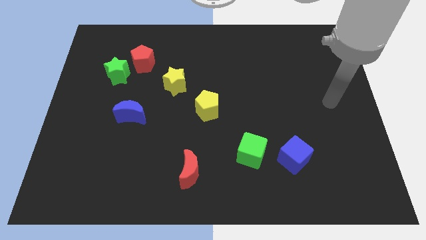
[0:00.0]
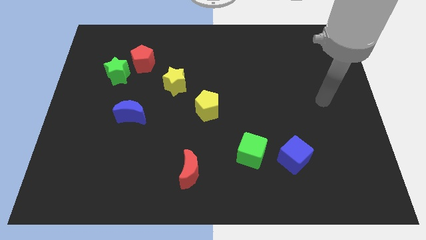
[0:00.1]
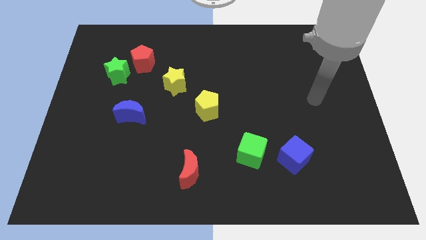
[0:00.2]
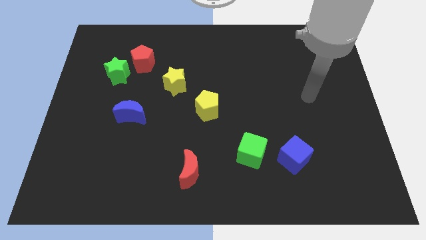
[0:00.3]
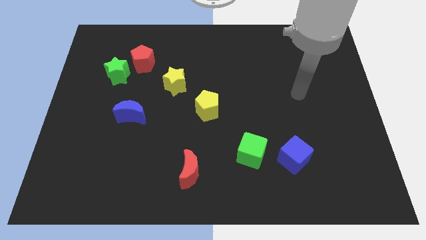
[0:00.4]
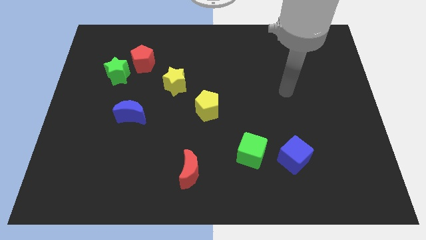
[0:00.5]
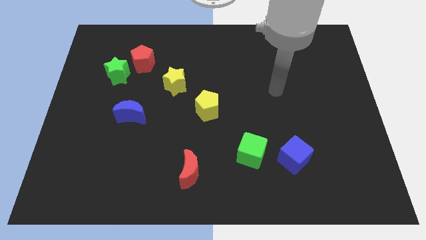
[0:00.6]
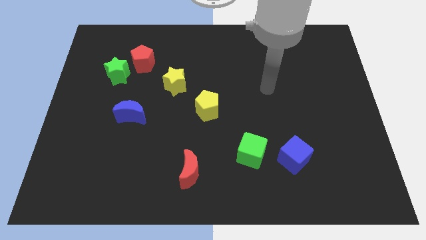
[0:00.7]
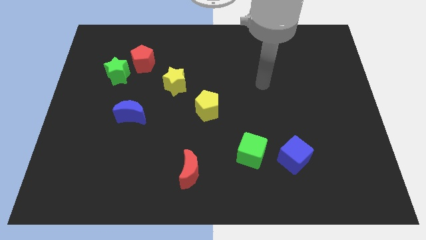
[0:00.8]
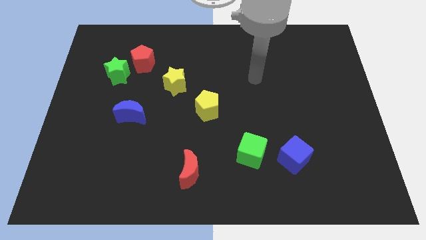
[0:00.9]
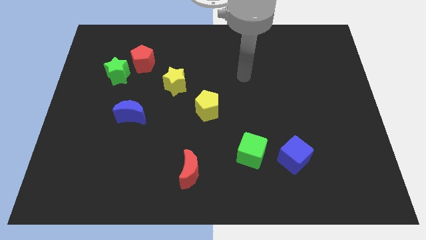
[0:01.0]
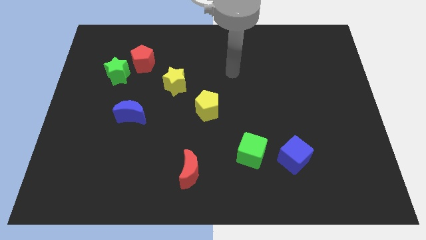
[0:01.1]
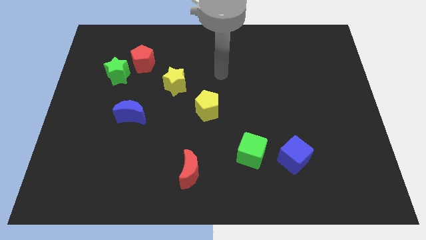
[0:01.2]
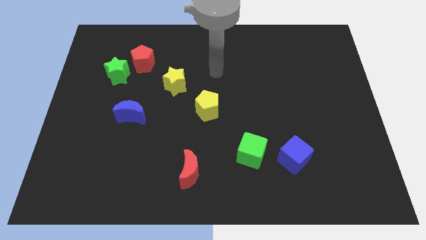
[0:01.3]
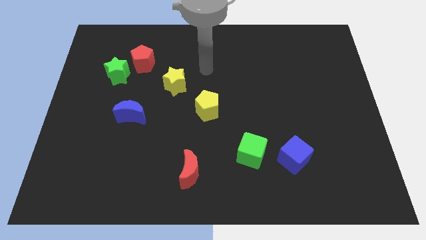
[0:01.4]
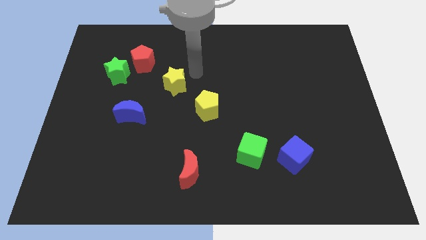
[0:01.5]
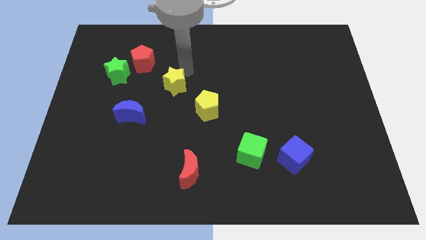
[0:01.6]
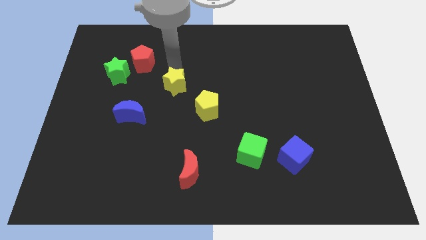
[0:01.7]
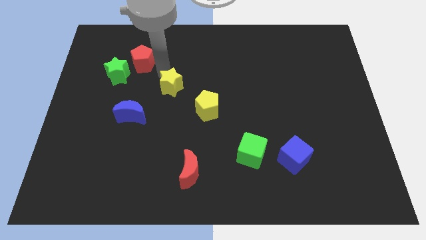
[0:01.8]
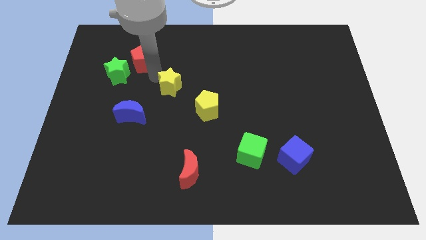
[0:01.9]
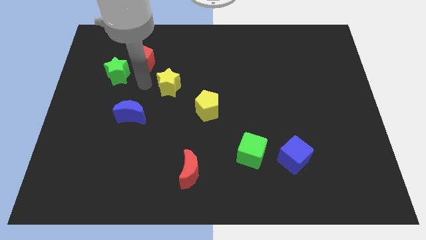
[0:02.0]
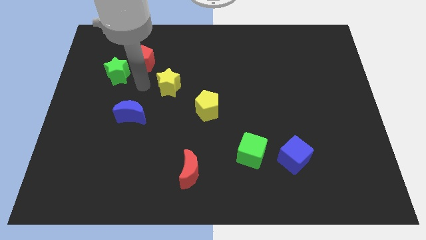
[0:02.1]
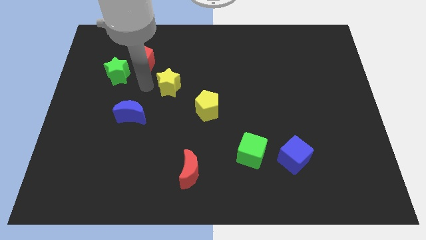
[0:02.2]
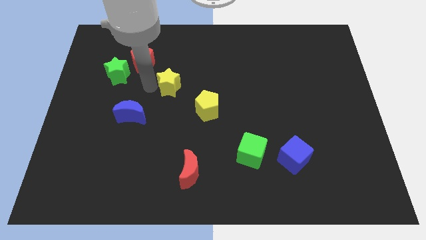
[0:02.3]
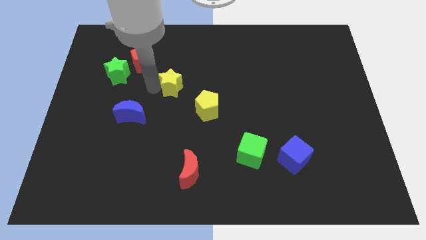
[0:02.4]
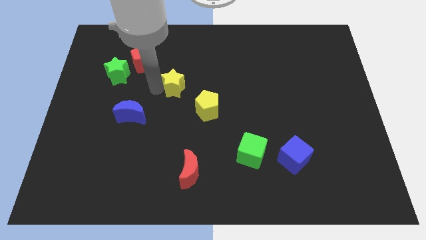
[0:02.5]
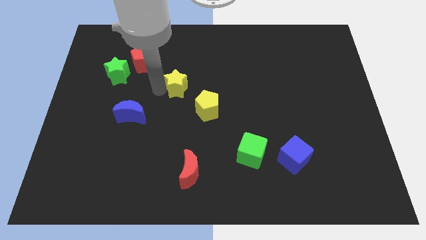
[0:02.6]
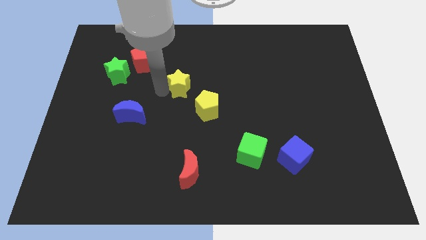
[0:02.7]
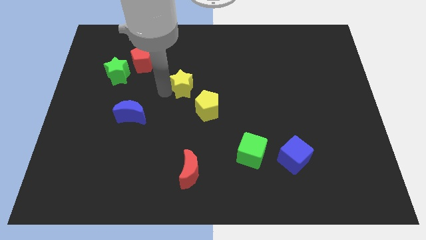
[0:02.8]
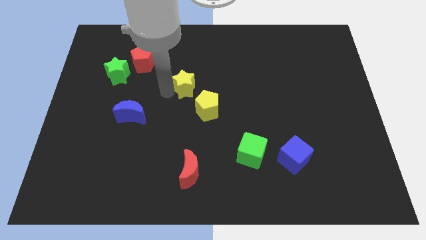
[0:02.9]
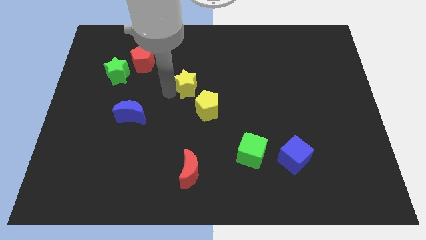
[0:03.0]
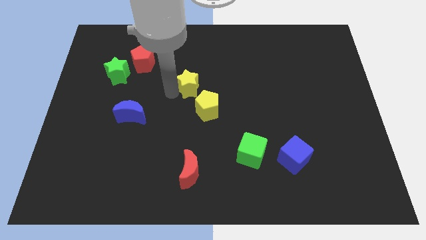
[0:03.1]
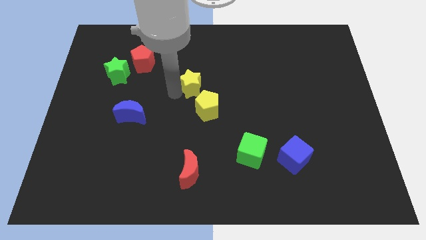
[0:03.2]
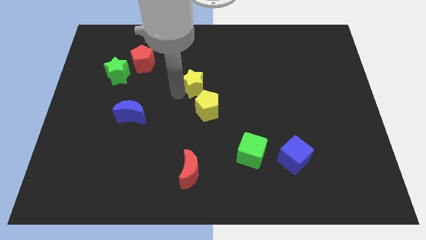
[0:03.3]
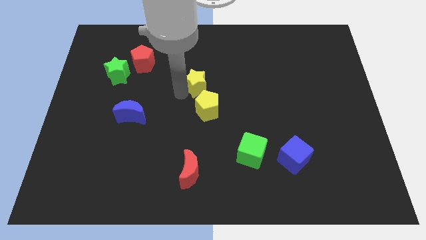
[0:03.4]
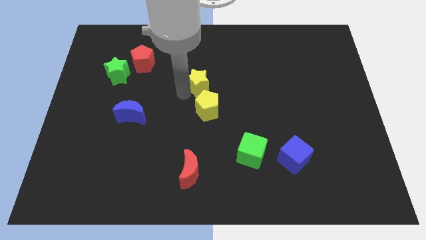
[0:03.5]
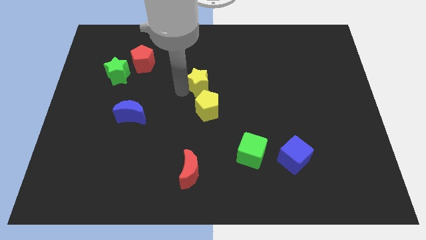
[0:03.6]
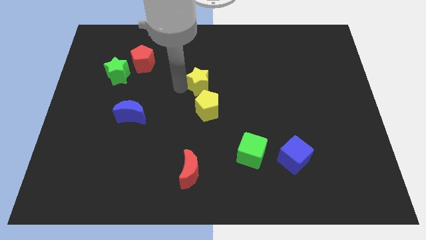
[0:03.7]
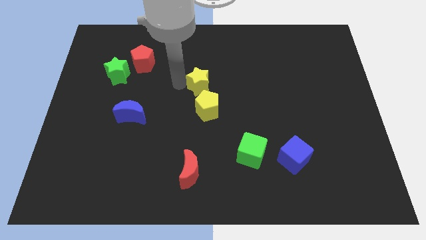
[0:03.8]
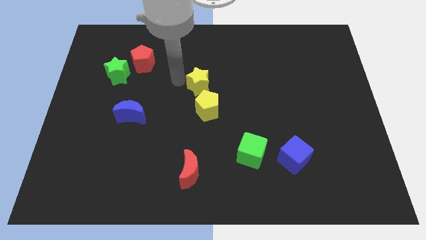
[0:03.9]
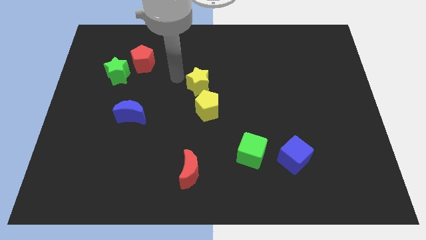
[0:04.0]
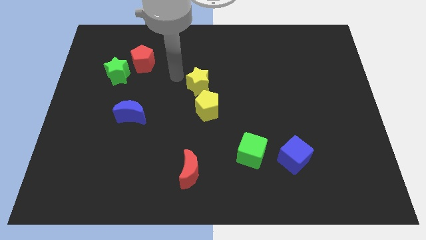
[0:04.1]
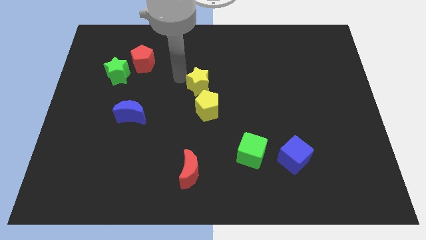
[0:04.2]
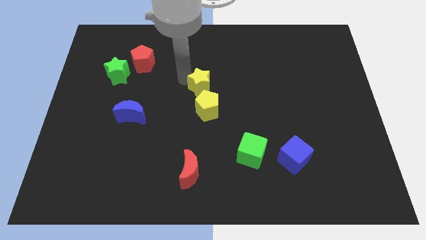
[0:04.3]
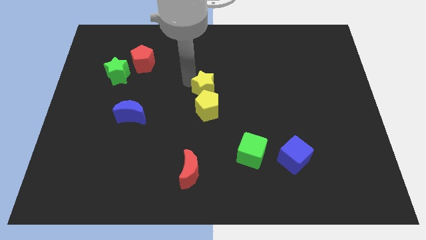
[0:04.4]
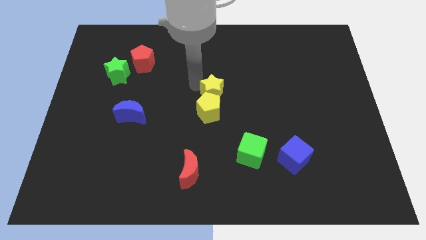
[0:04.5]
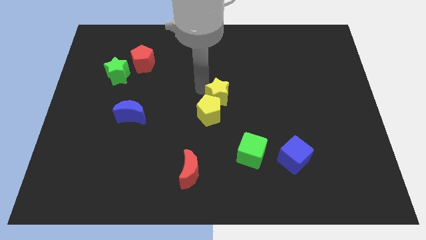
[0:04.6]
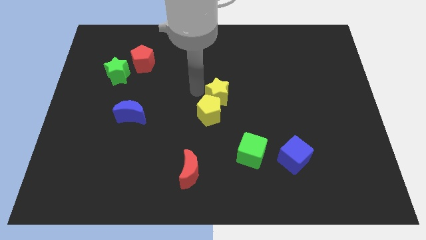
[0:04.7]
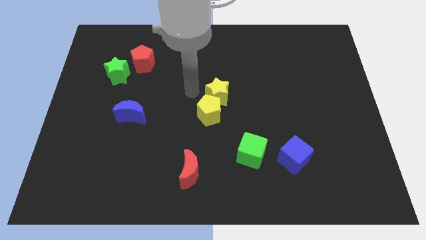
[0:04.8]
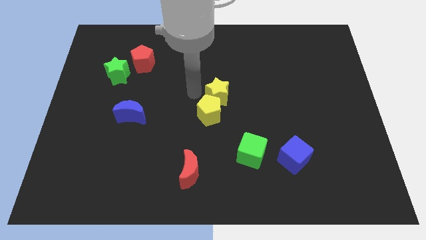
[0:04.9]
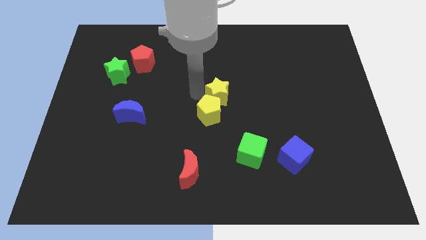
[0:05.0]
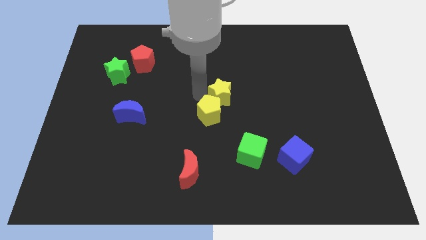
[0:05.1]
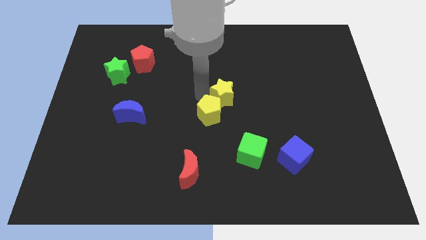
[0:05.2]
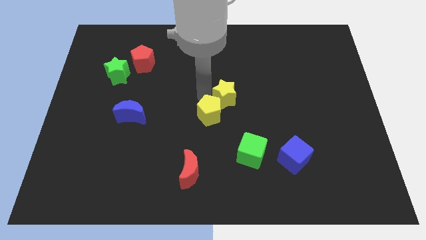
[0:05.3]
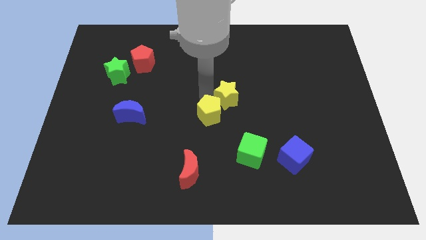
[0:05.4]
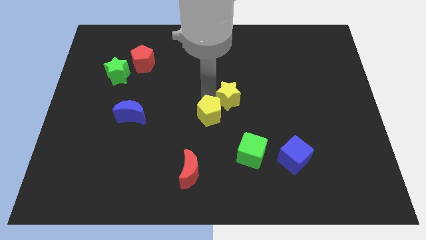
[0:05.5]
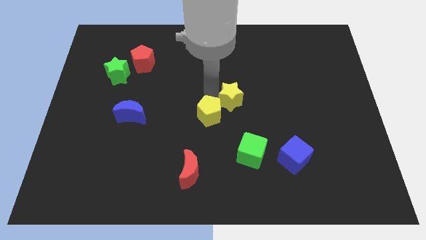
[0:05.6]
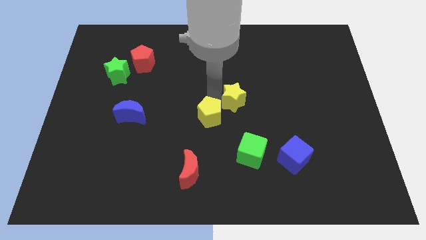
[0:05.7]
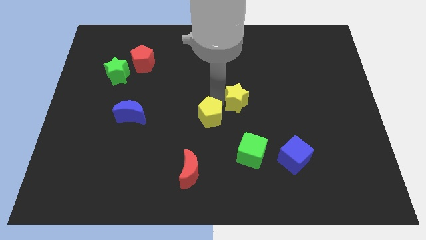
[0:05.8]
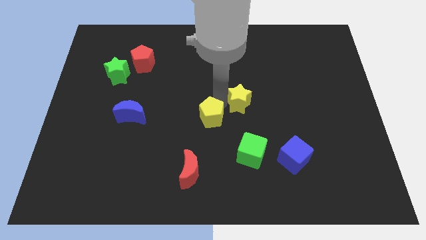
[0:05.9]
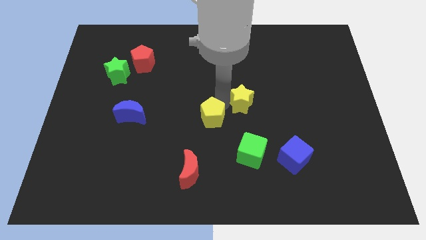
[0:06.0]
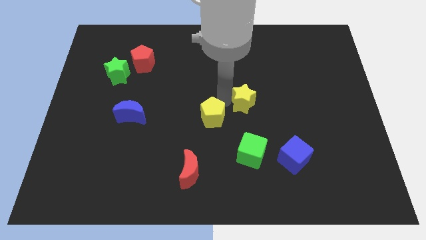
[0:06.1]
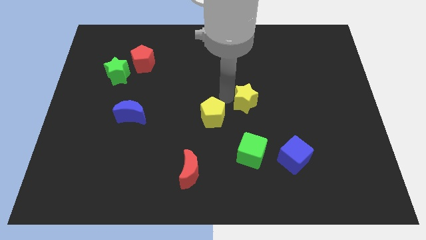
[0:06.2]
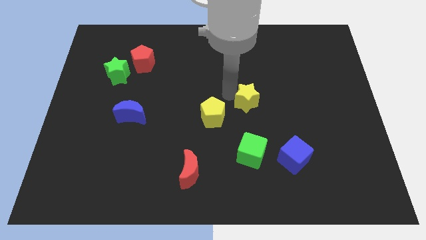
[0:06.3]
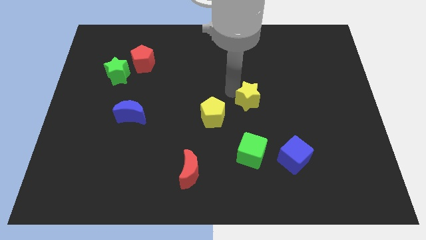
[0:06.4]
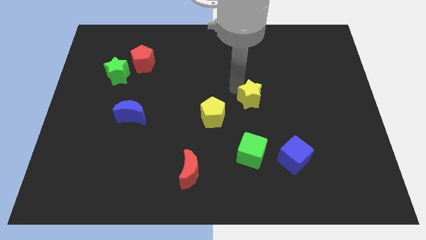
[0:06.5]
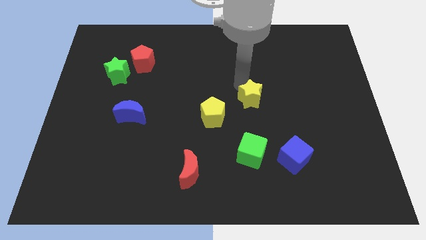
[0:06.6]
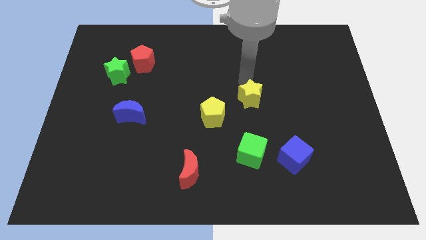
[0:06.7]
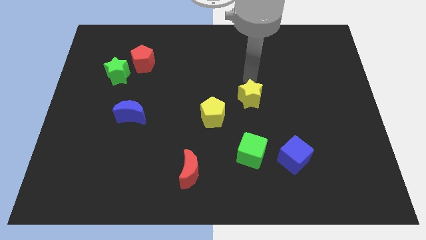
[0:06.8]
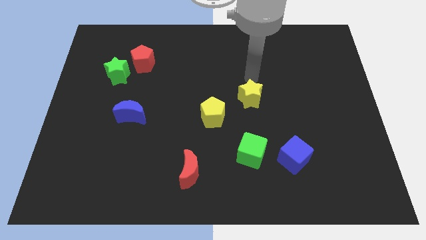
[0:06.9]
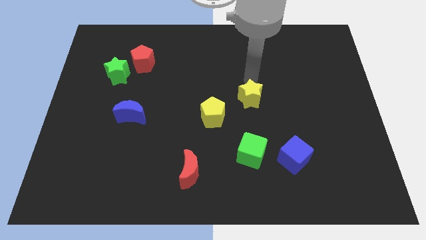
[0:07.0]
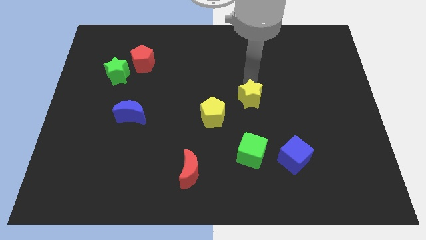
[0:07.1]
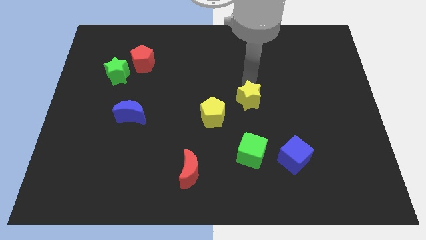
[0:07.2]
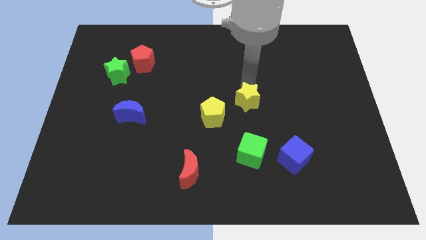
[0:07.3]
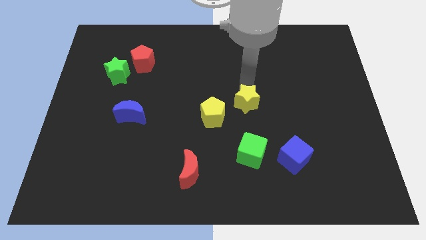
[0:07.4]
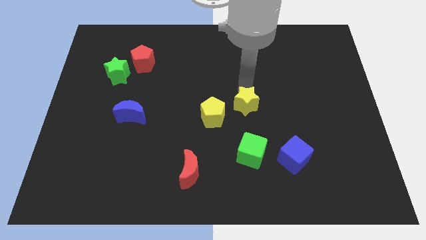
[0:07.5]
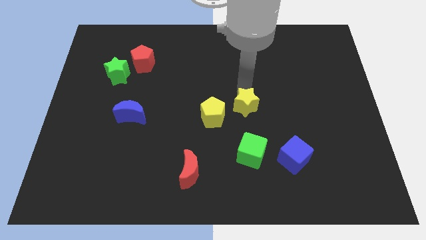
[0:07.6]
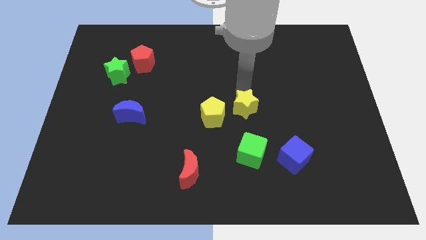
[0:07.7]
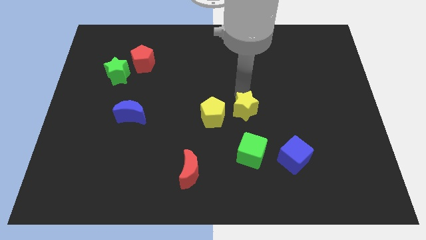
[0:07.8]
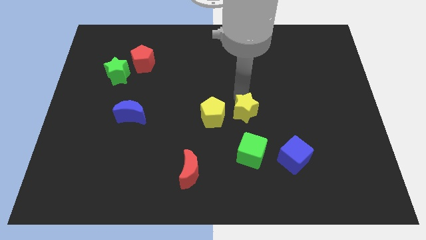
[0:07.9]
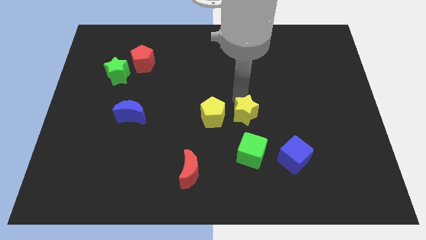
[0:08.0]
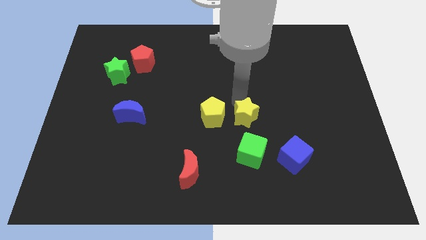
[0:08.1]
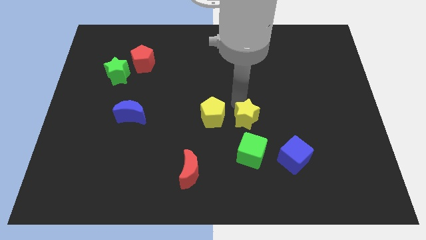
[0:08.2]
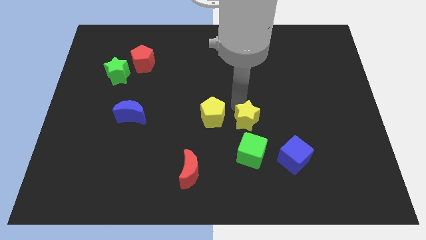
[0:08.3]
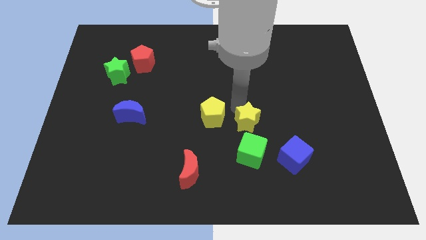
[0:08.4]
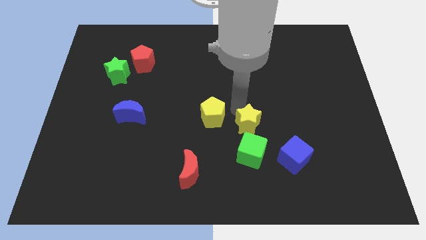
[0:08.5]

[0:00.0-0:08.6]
slide the yellow star downwards and then right
